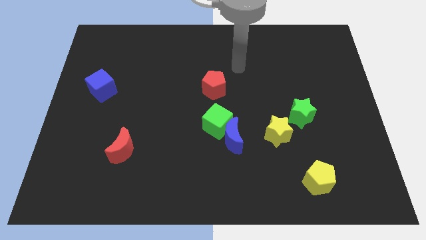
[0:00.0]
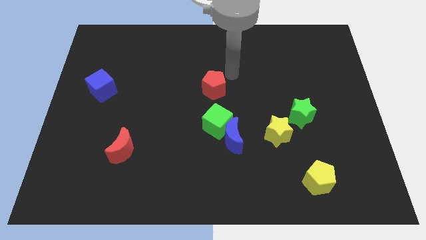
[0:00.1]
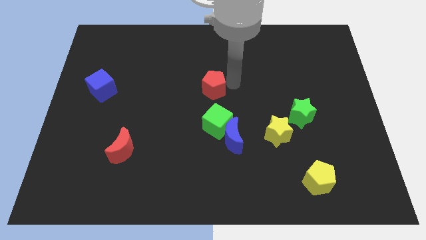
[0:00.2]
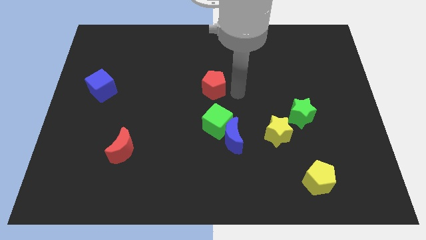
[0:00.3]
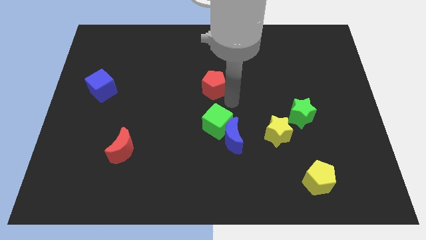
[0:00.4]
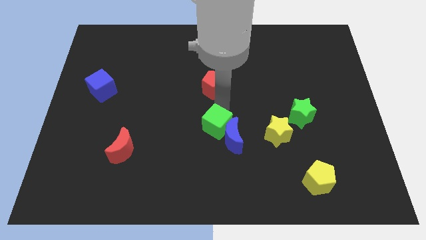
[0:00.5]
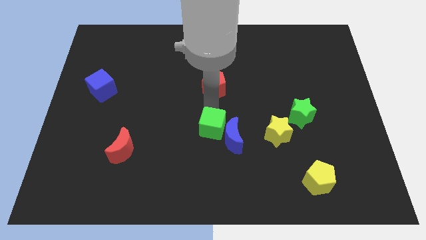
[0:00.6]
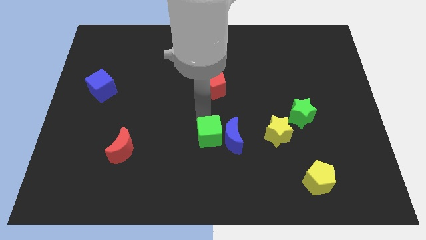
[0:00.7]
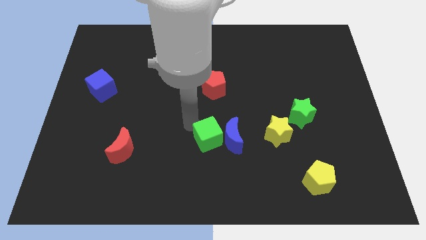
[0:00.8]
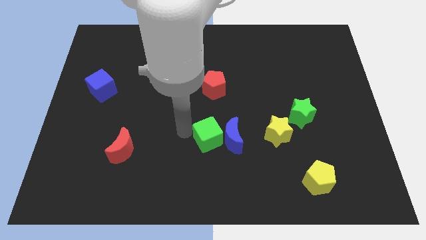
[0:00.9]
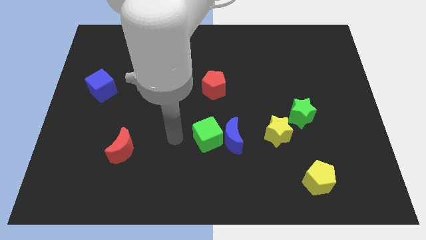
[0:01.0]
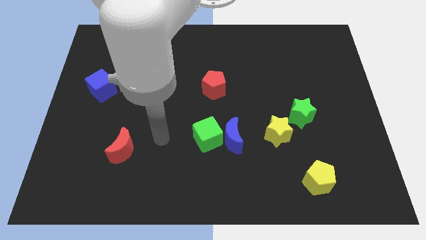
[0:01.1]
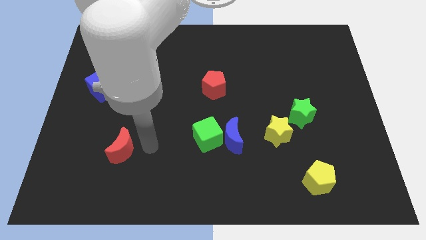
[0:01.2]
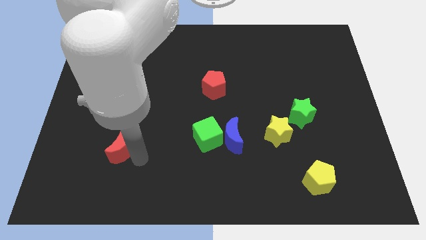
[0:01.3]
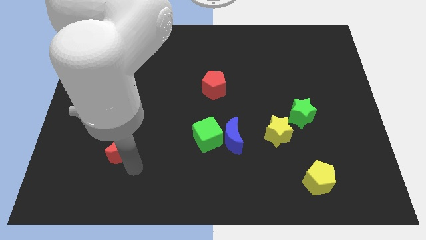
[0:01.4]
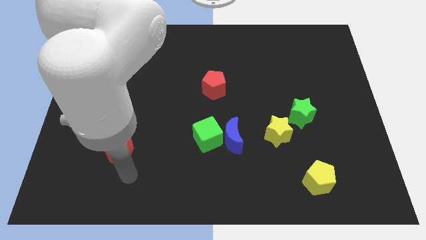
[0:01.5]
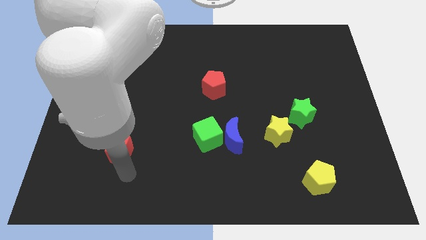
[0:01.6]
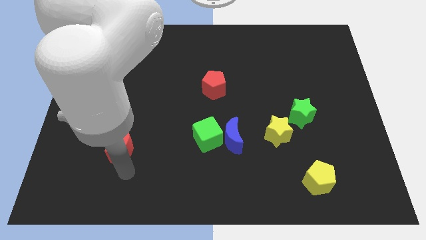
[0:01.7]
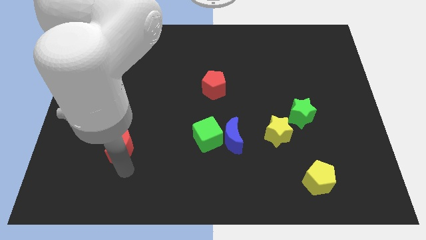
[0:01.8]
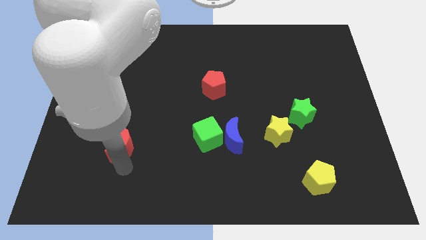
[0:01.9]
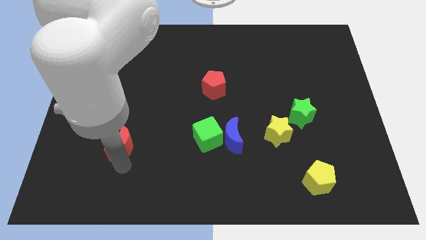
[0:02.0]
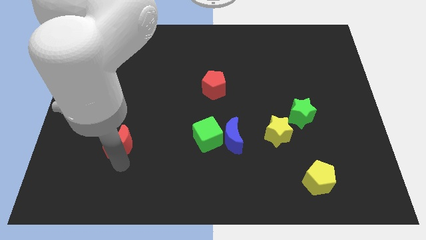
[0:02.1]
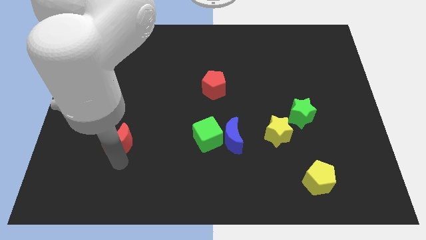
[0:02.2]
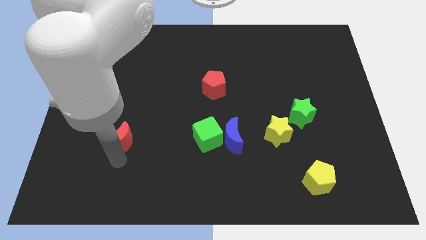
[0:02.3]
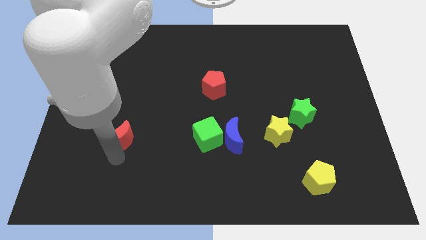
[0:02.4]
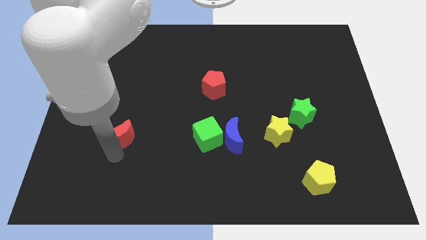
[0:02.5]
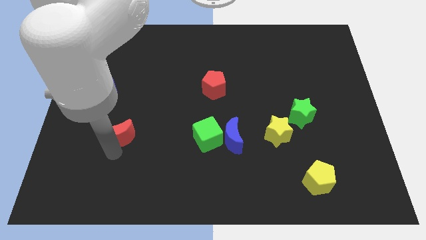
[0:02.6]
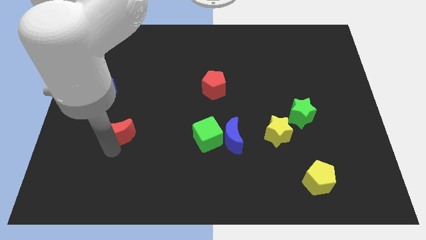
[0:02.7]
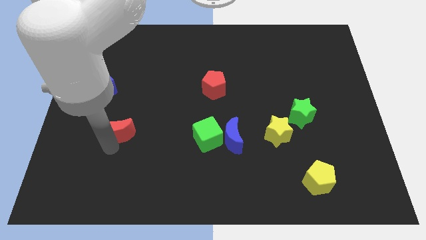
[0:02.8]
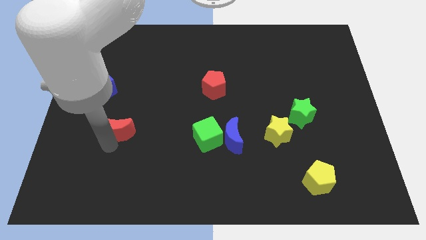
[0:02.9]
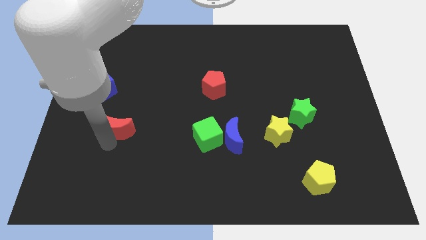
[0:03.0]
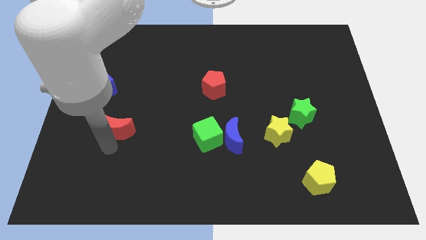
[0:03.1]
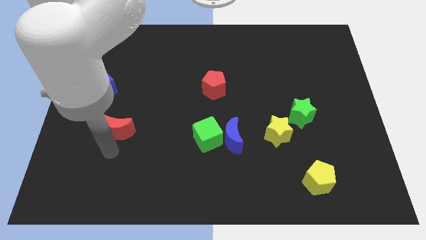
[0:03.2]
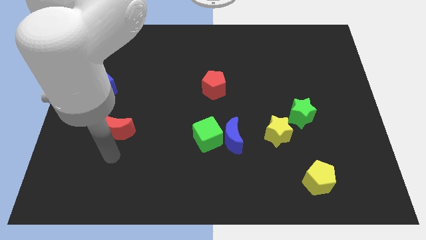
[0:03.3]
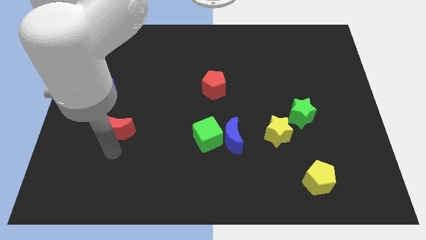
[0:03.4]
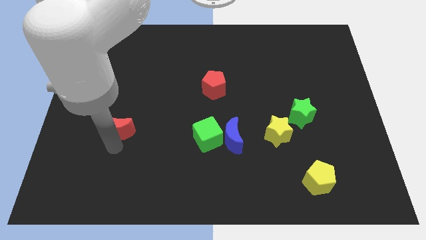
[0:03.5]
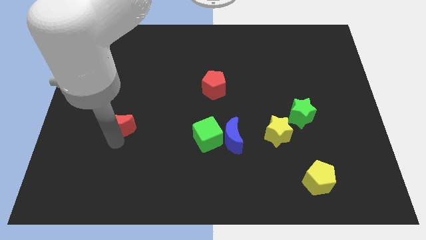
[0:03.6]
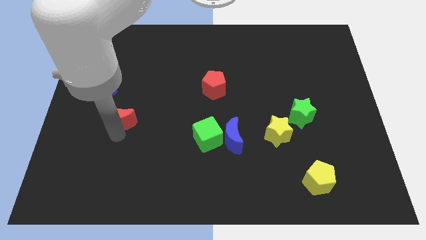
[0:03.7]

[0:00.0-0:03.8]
slide the red moon up a little

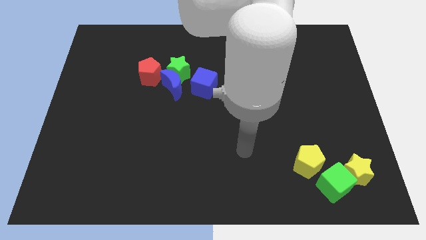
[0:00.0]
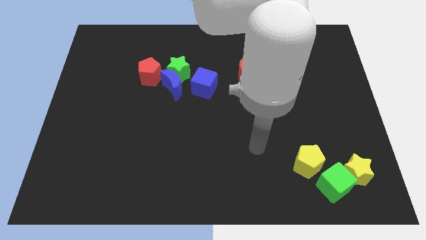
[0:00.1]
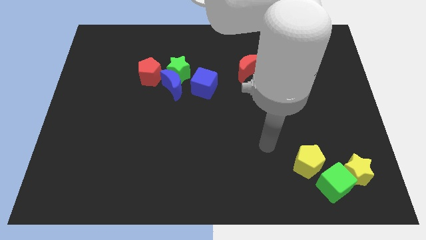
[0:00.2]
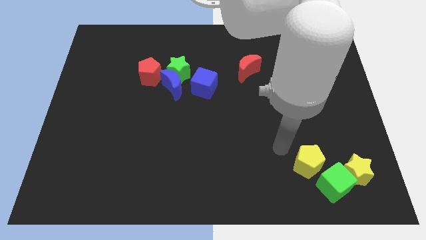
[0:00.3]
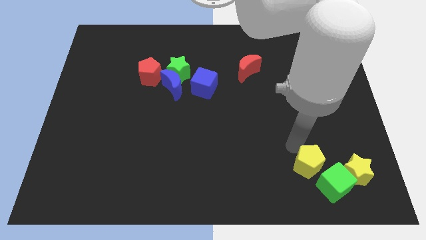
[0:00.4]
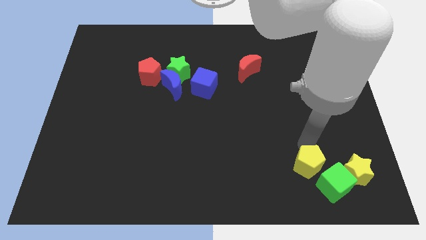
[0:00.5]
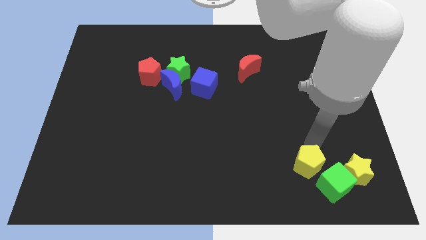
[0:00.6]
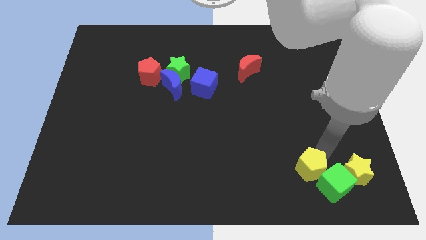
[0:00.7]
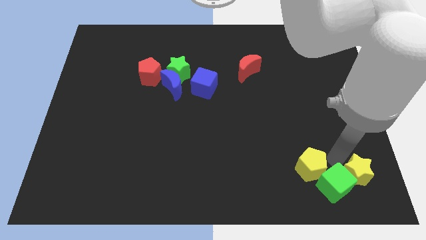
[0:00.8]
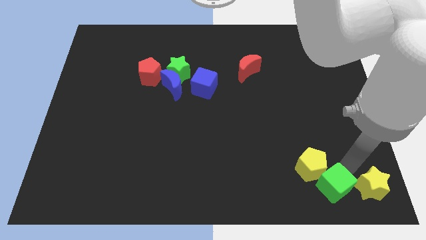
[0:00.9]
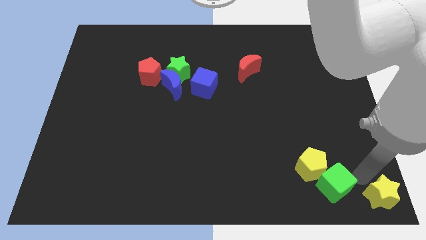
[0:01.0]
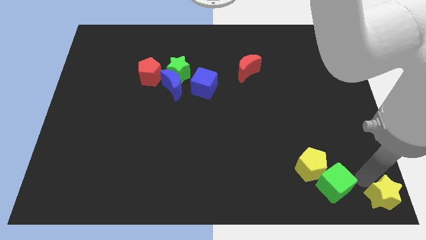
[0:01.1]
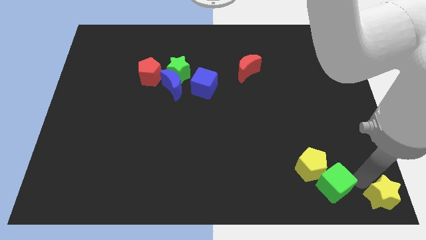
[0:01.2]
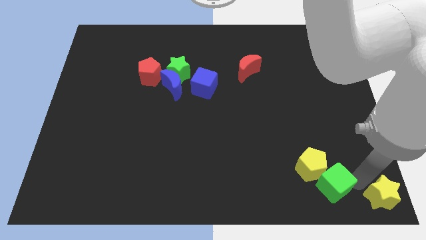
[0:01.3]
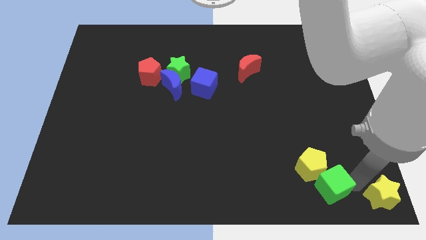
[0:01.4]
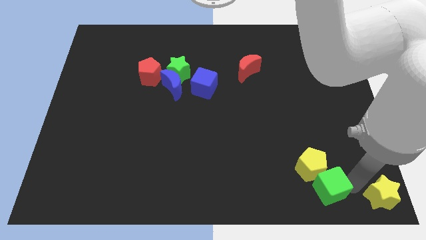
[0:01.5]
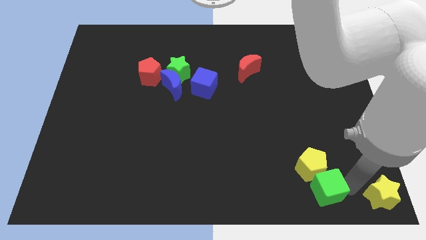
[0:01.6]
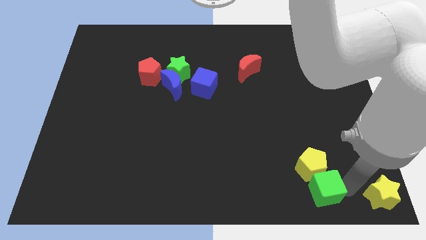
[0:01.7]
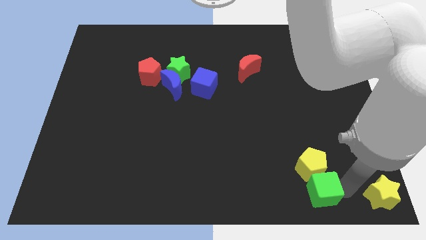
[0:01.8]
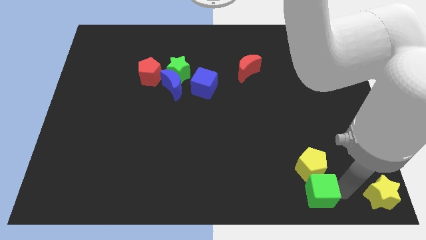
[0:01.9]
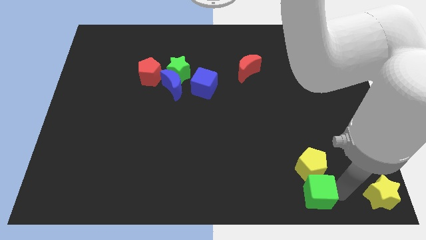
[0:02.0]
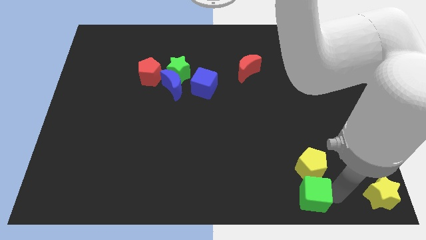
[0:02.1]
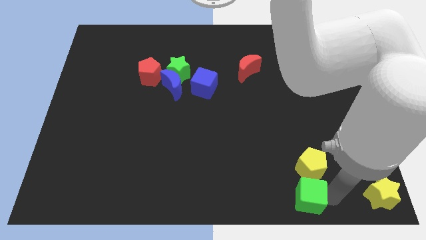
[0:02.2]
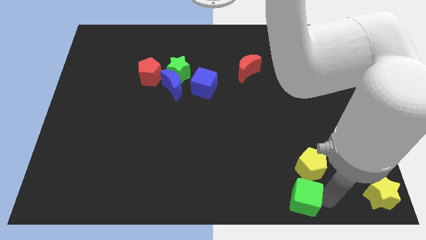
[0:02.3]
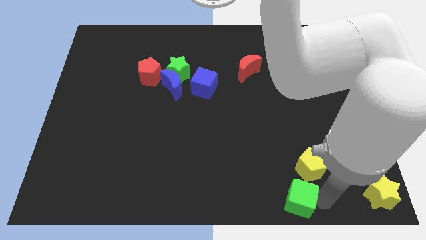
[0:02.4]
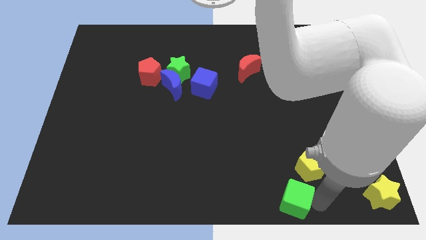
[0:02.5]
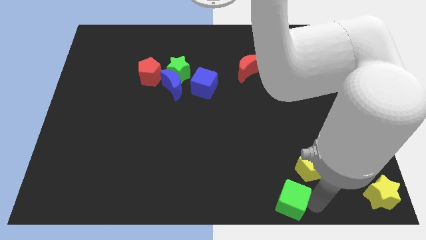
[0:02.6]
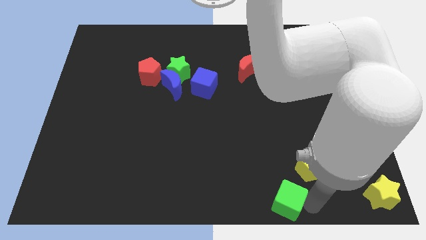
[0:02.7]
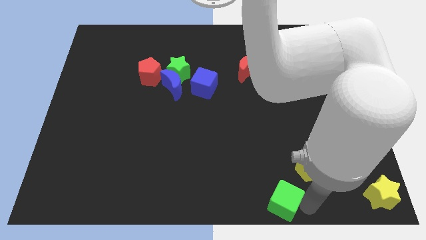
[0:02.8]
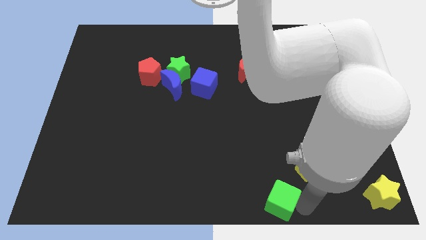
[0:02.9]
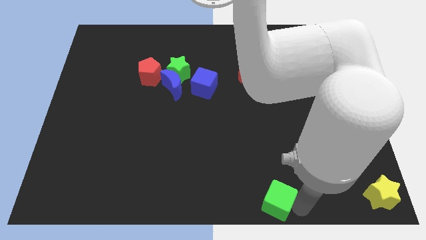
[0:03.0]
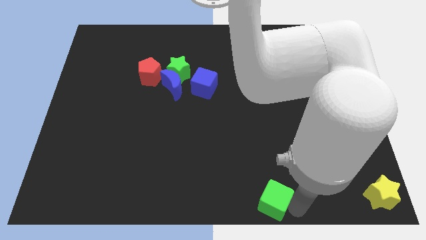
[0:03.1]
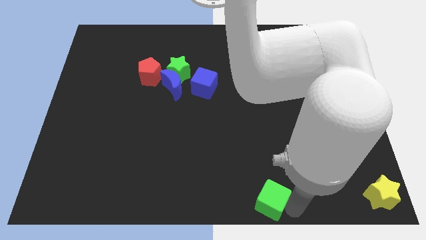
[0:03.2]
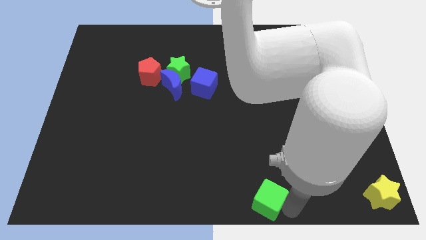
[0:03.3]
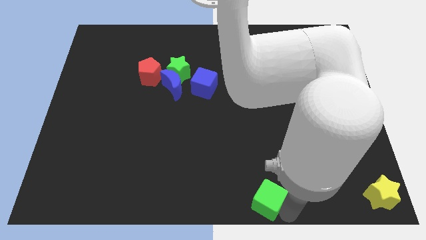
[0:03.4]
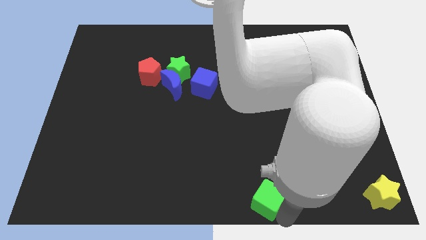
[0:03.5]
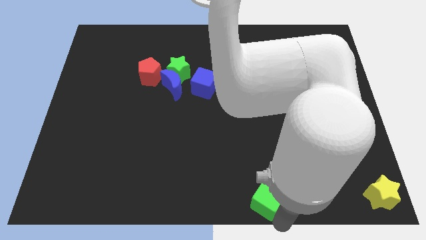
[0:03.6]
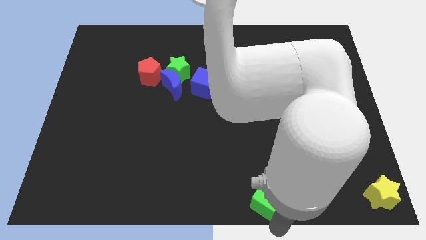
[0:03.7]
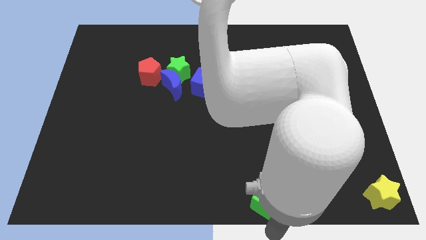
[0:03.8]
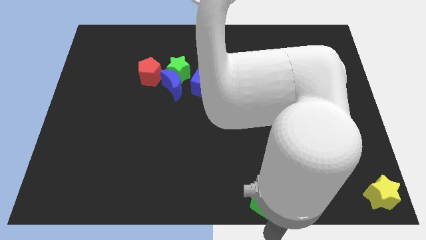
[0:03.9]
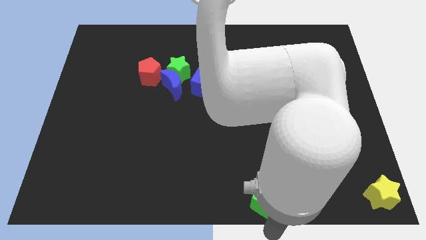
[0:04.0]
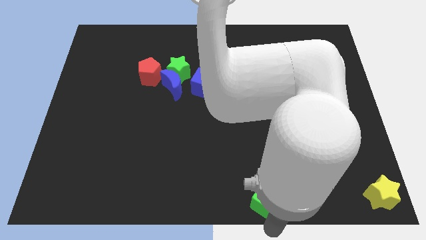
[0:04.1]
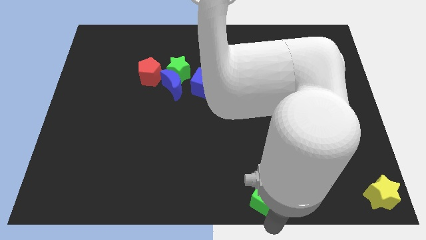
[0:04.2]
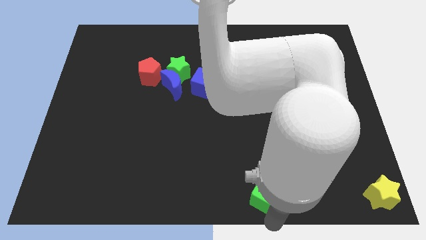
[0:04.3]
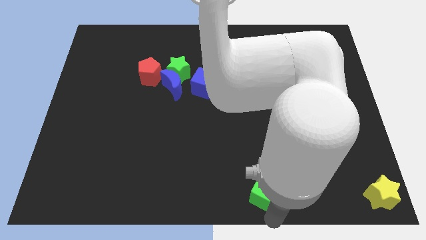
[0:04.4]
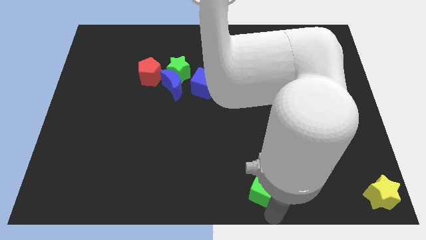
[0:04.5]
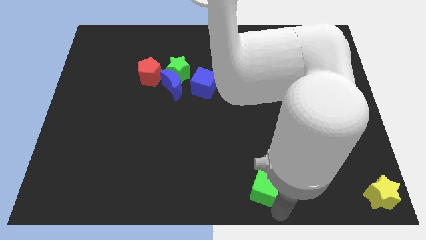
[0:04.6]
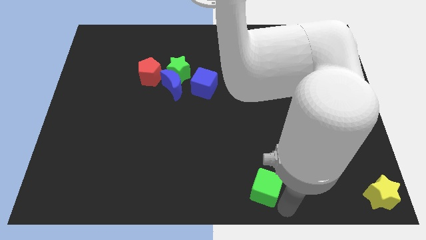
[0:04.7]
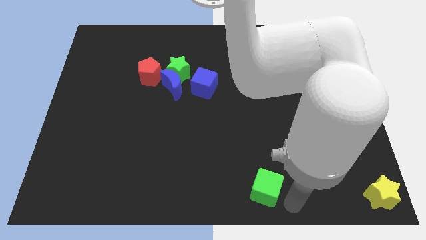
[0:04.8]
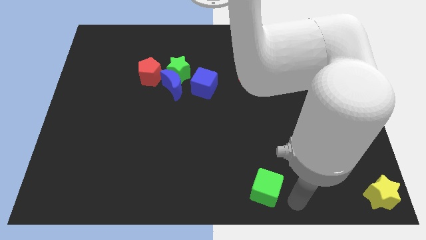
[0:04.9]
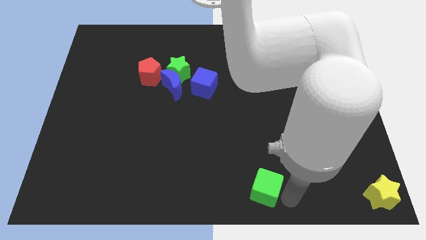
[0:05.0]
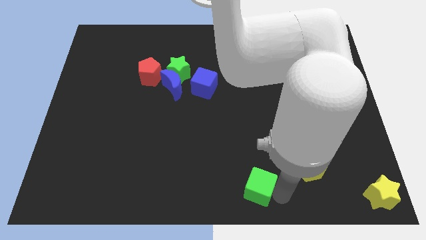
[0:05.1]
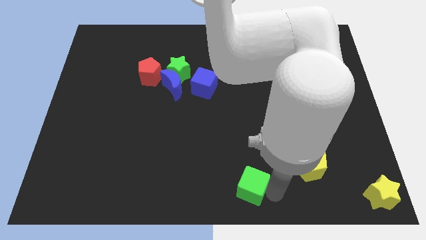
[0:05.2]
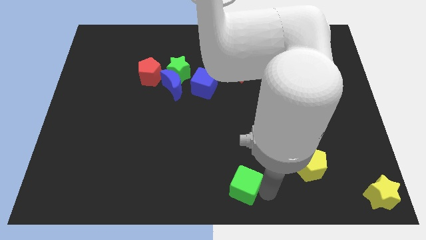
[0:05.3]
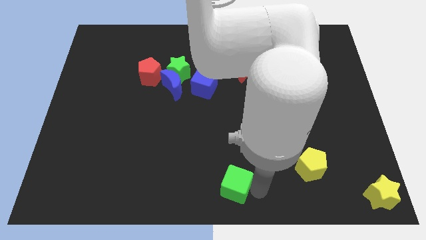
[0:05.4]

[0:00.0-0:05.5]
slide the green cube to the left
